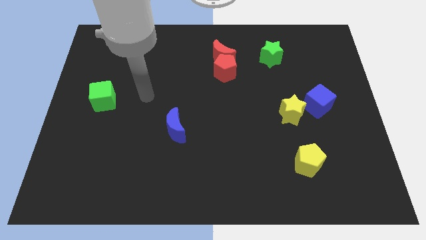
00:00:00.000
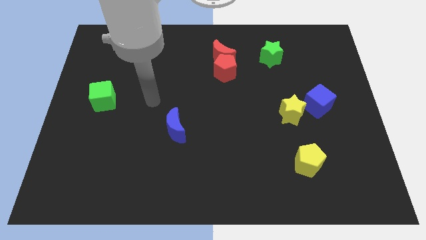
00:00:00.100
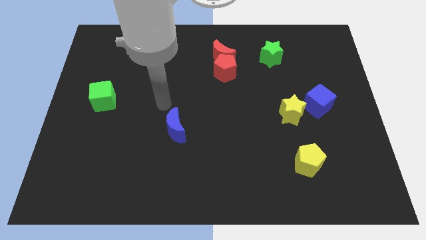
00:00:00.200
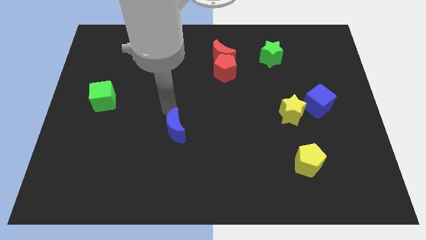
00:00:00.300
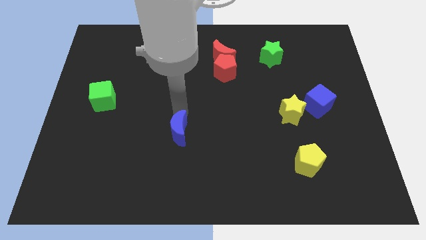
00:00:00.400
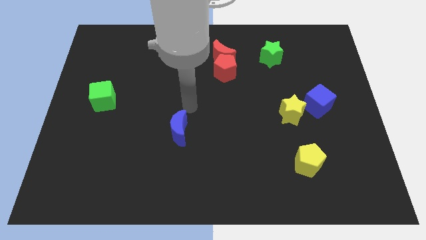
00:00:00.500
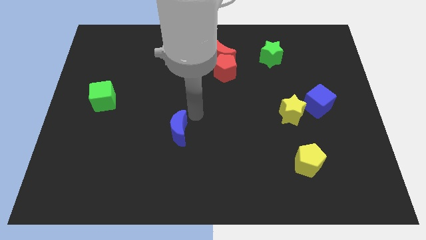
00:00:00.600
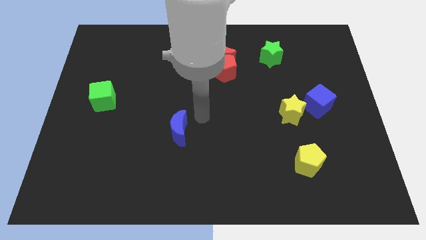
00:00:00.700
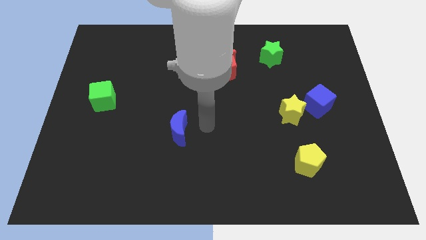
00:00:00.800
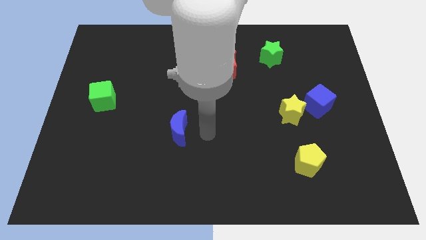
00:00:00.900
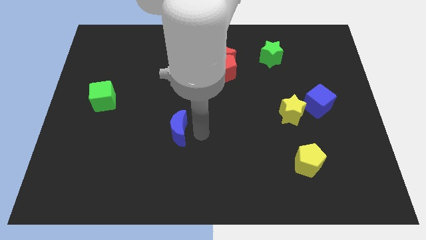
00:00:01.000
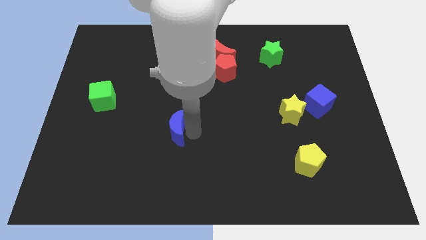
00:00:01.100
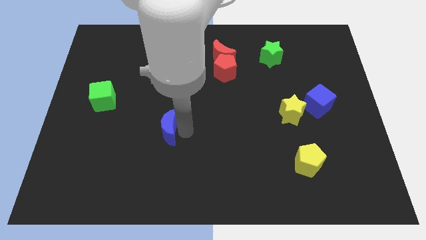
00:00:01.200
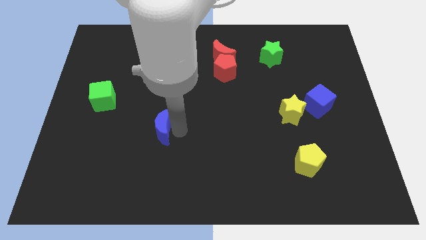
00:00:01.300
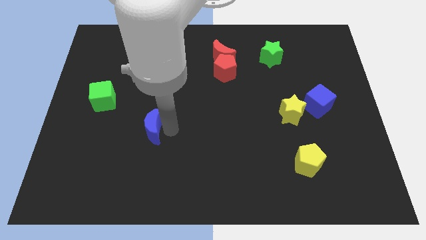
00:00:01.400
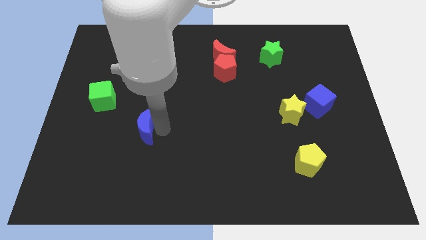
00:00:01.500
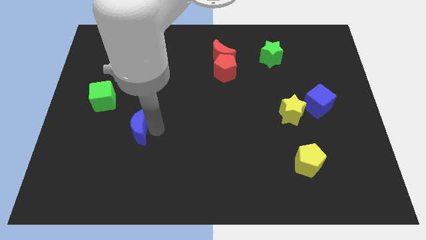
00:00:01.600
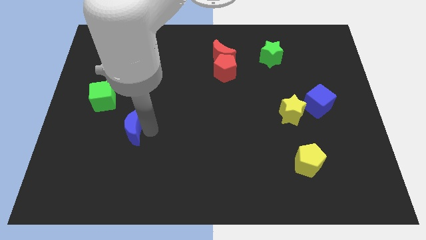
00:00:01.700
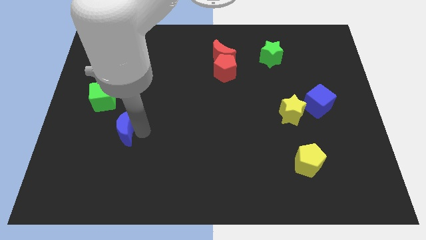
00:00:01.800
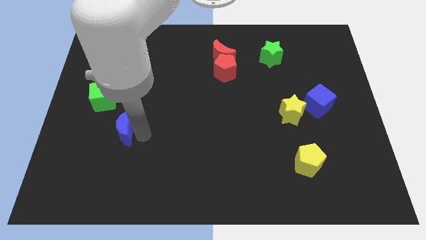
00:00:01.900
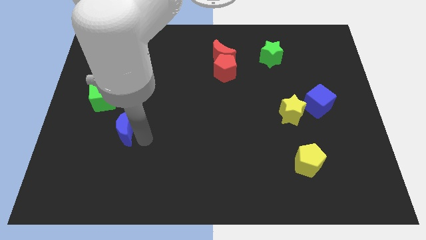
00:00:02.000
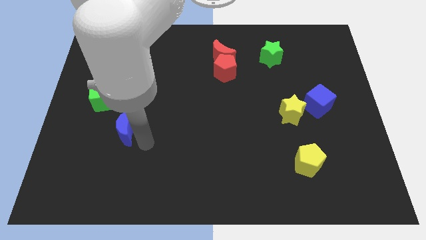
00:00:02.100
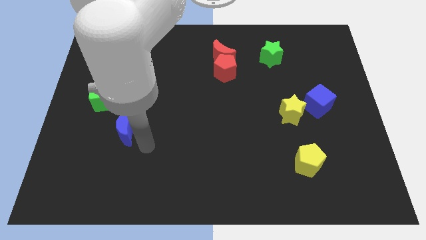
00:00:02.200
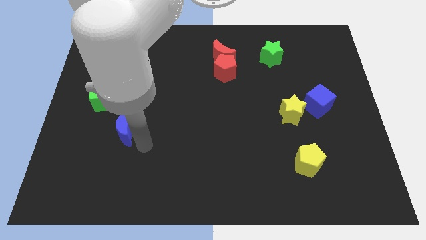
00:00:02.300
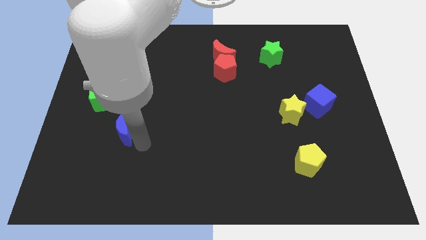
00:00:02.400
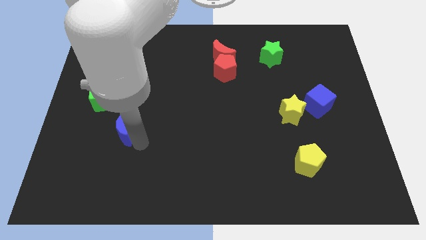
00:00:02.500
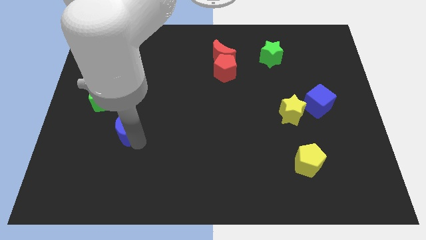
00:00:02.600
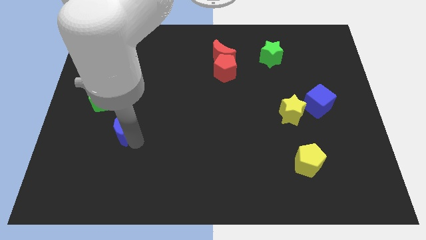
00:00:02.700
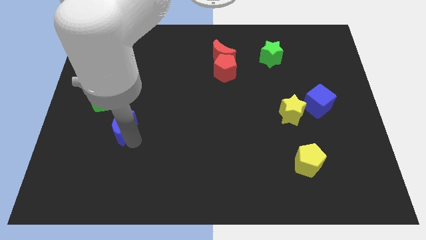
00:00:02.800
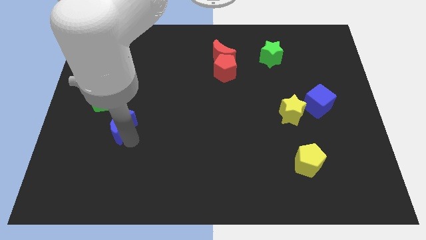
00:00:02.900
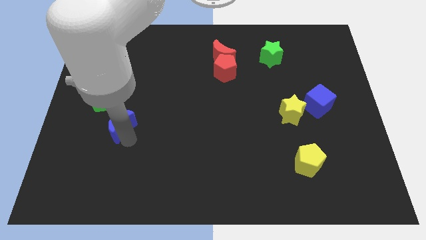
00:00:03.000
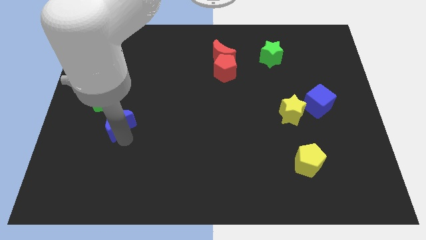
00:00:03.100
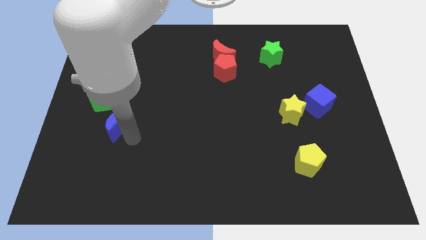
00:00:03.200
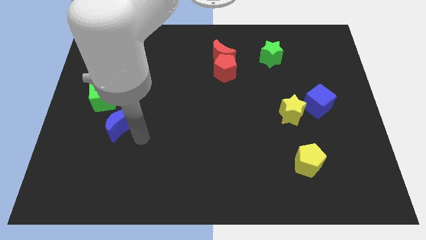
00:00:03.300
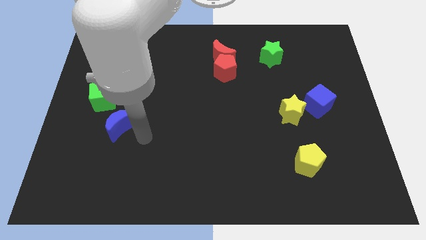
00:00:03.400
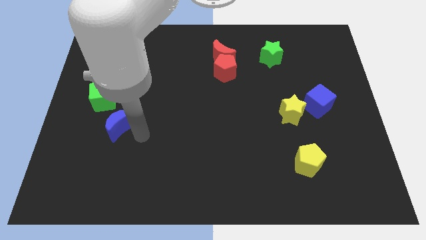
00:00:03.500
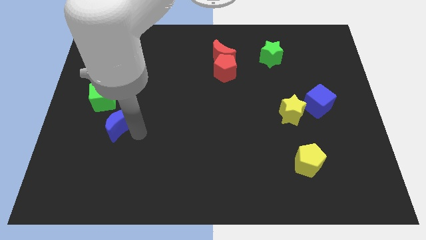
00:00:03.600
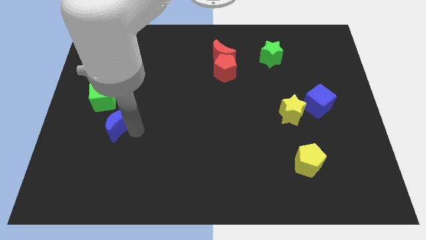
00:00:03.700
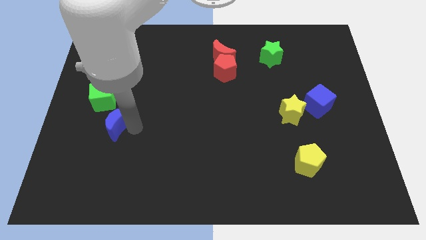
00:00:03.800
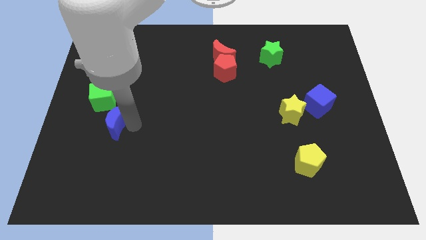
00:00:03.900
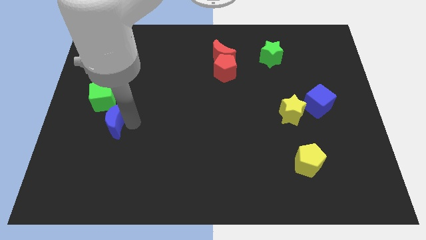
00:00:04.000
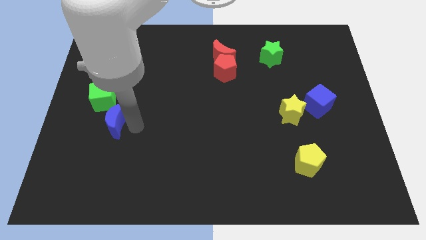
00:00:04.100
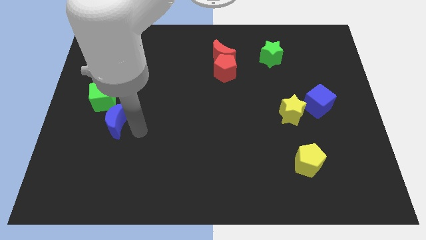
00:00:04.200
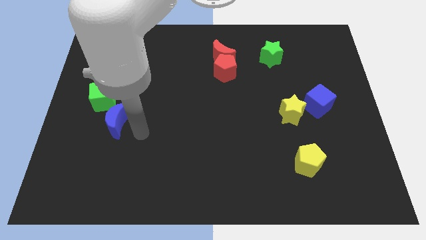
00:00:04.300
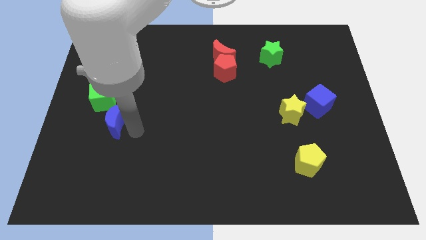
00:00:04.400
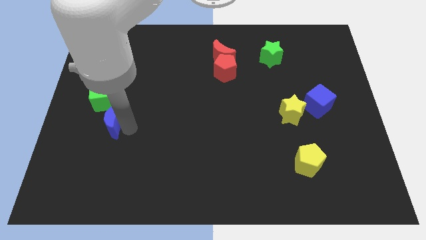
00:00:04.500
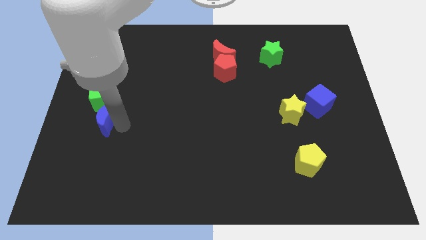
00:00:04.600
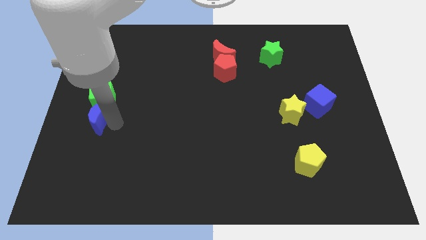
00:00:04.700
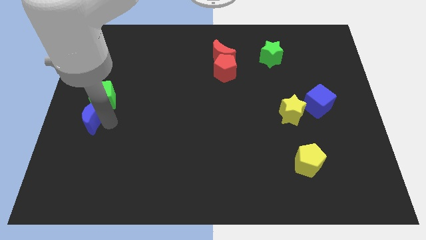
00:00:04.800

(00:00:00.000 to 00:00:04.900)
put the blue moon to the left side of the board

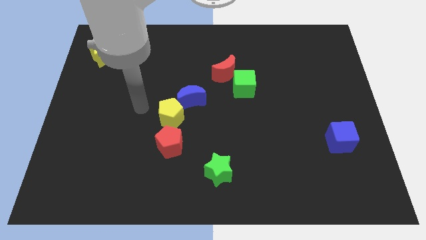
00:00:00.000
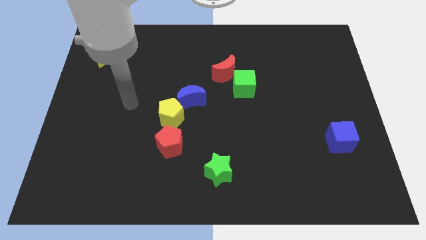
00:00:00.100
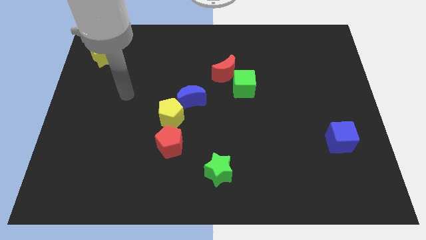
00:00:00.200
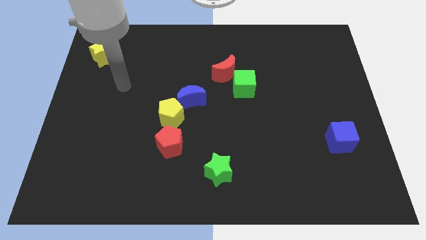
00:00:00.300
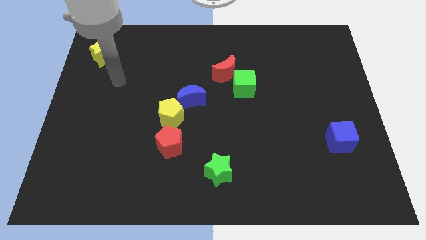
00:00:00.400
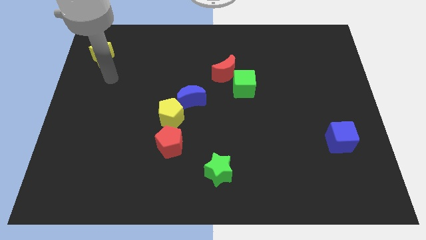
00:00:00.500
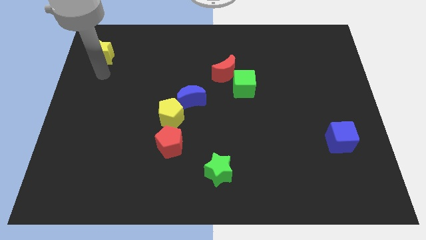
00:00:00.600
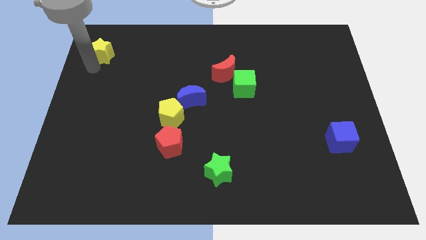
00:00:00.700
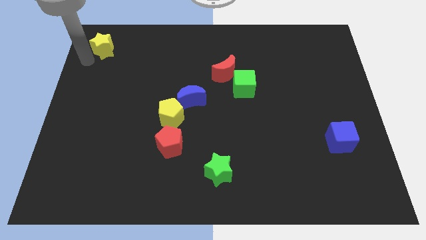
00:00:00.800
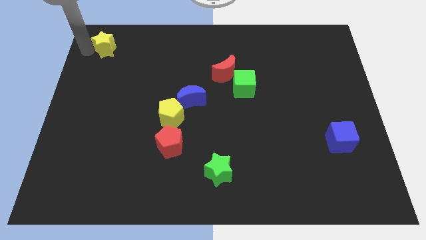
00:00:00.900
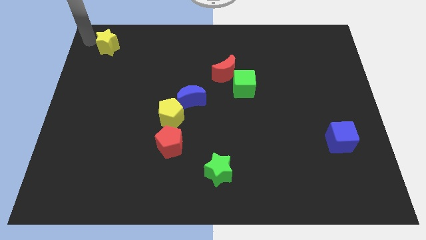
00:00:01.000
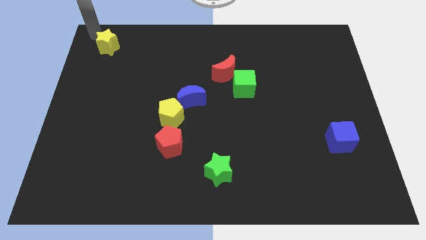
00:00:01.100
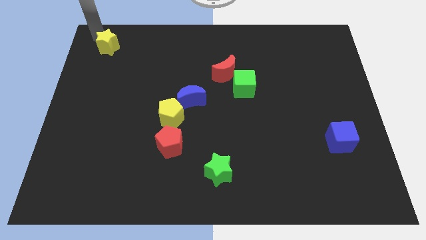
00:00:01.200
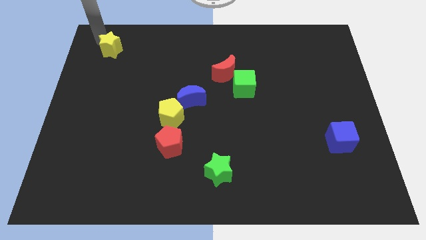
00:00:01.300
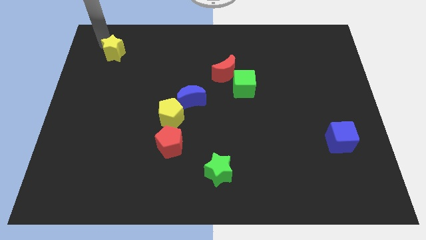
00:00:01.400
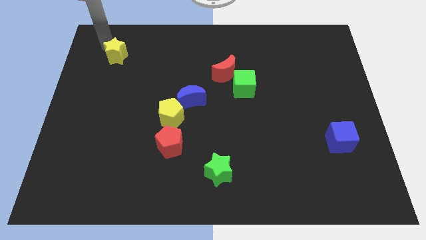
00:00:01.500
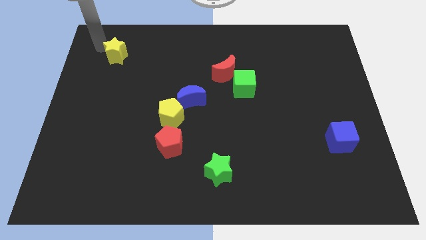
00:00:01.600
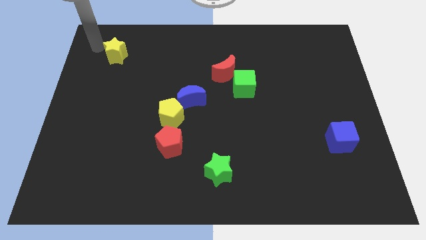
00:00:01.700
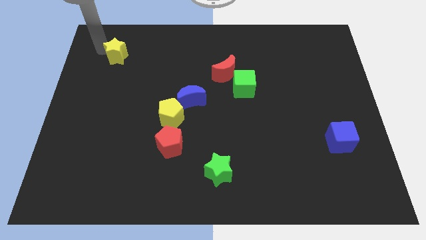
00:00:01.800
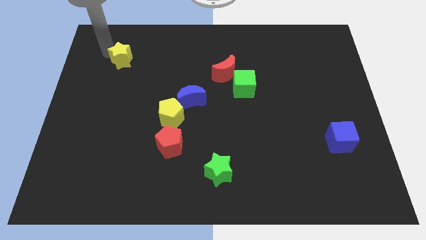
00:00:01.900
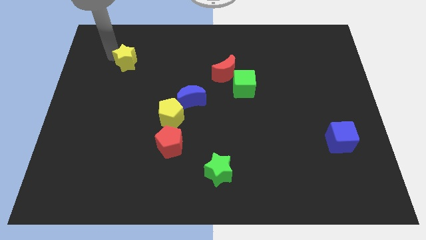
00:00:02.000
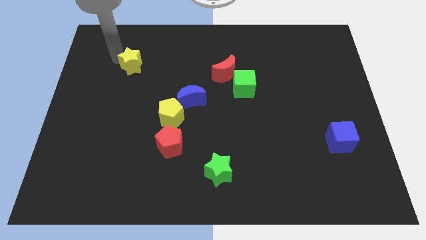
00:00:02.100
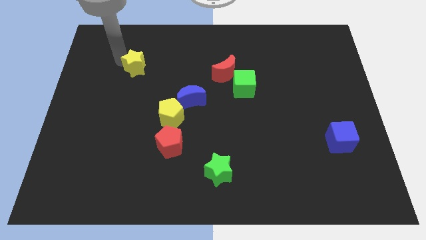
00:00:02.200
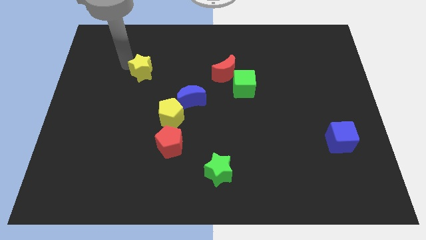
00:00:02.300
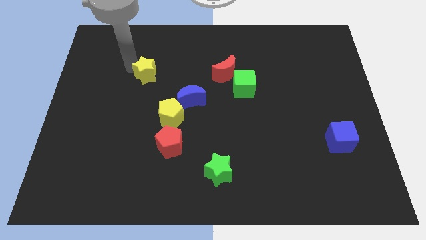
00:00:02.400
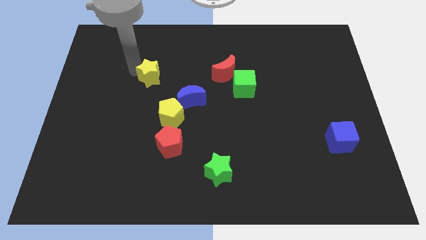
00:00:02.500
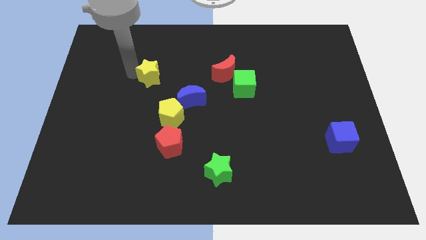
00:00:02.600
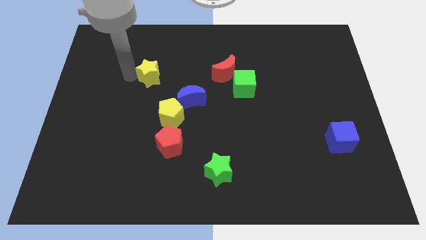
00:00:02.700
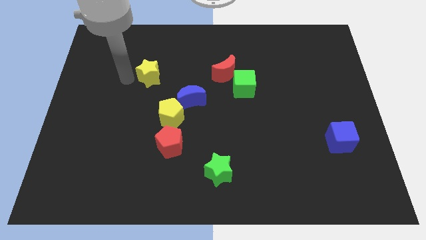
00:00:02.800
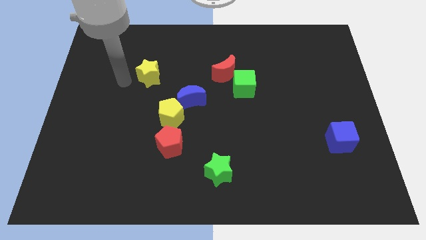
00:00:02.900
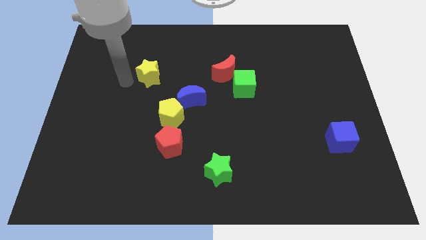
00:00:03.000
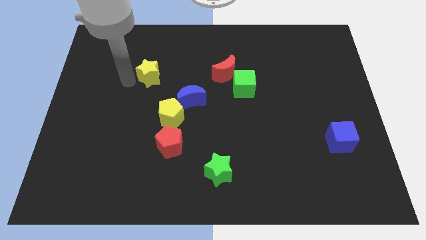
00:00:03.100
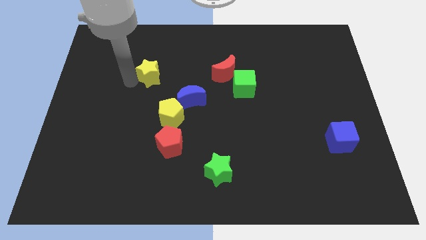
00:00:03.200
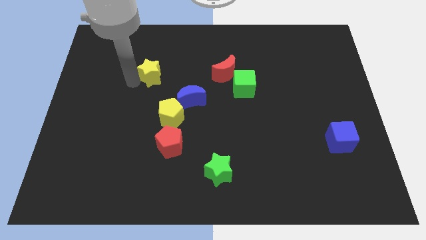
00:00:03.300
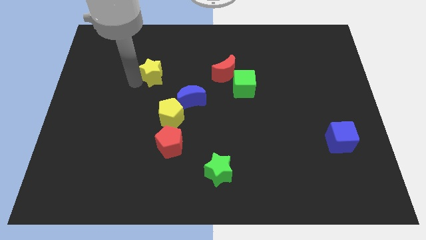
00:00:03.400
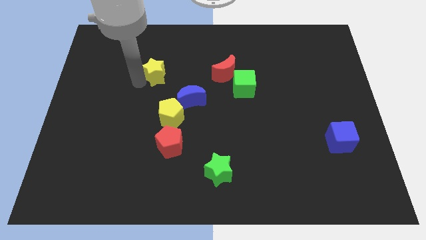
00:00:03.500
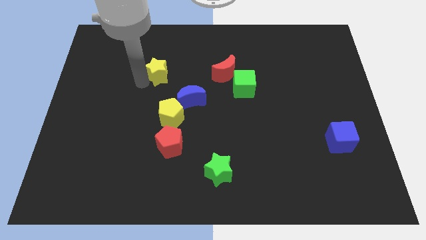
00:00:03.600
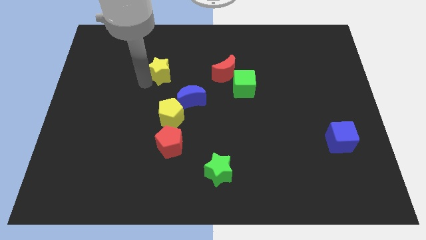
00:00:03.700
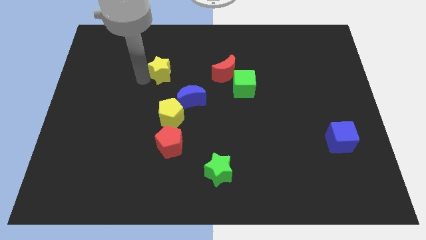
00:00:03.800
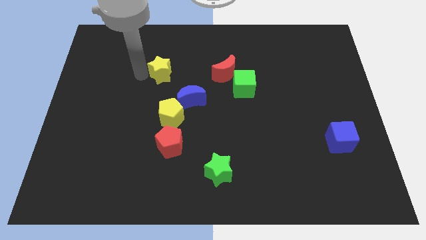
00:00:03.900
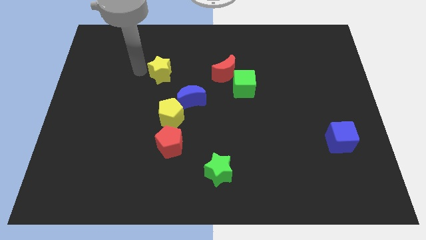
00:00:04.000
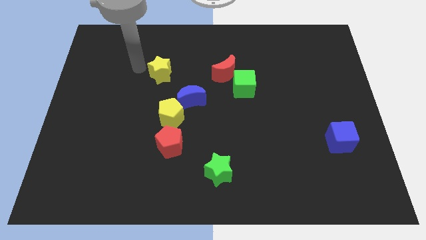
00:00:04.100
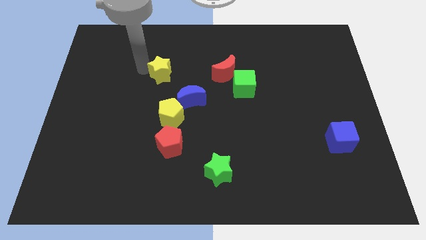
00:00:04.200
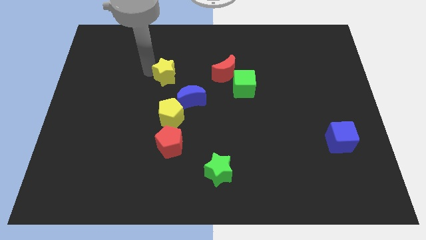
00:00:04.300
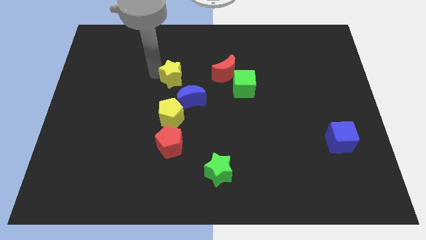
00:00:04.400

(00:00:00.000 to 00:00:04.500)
push the yellow star to the center of the board
